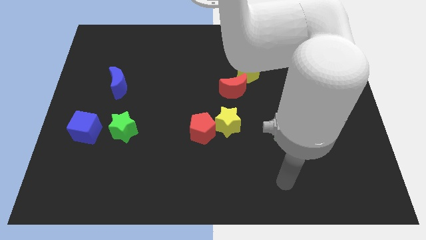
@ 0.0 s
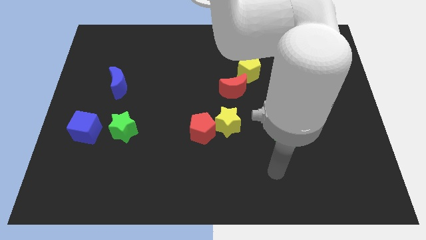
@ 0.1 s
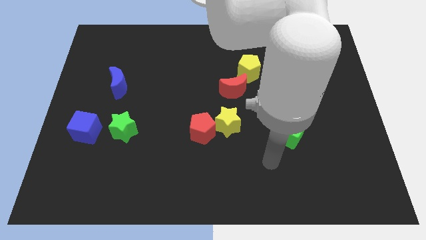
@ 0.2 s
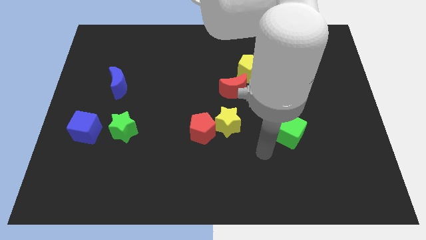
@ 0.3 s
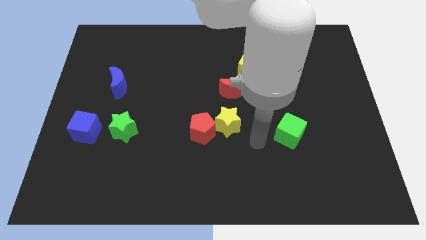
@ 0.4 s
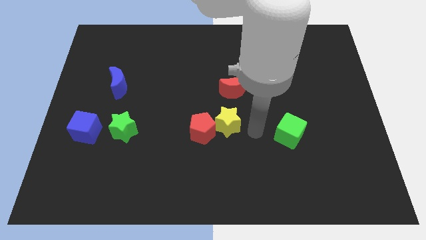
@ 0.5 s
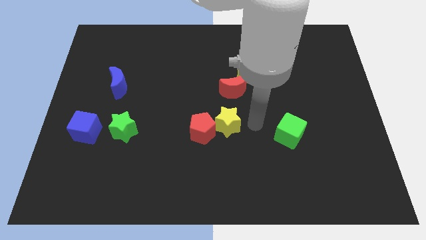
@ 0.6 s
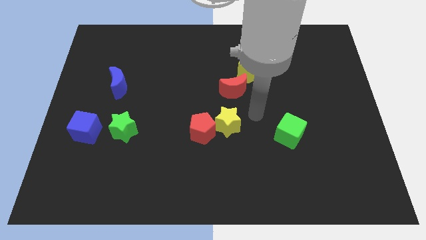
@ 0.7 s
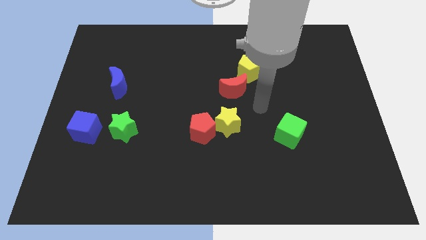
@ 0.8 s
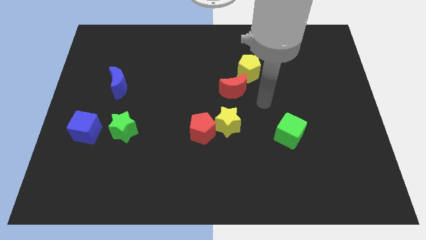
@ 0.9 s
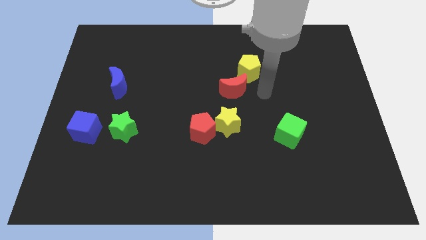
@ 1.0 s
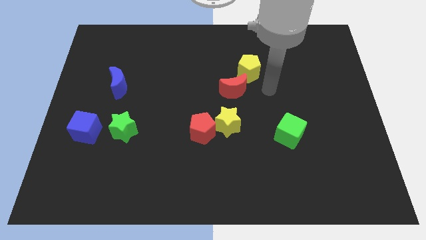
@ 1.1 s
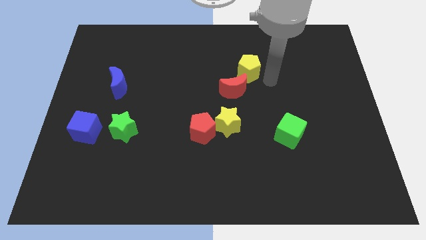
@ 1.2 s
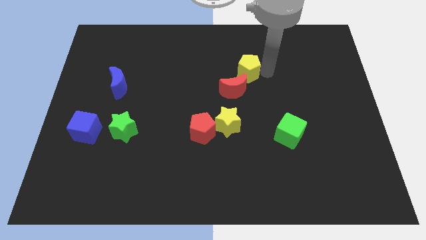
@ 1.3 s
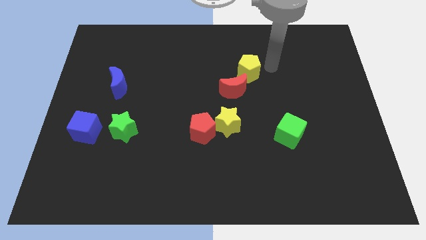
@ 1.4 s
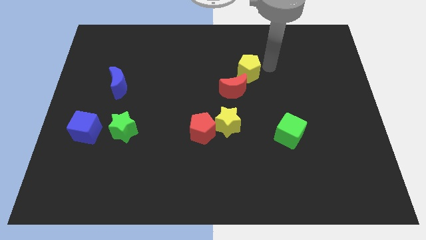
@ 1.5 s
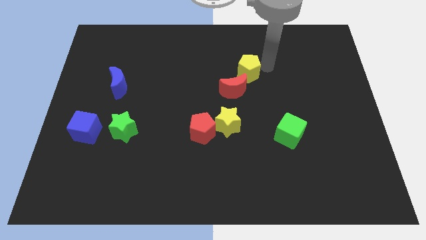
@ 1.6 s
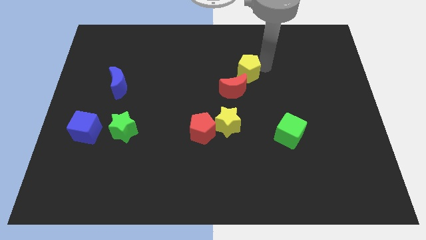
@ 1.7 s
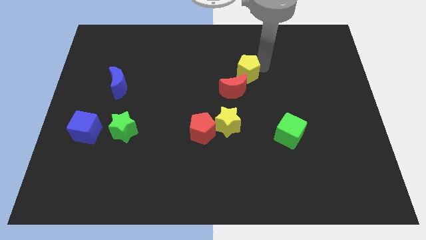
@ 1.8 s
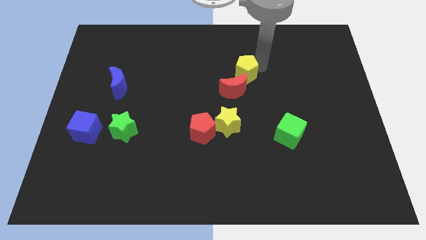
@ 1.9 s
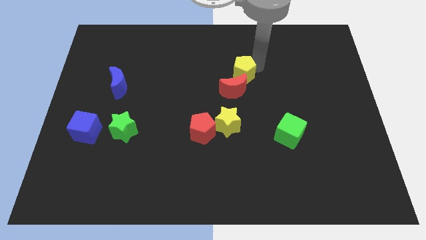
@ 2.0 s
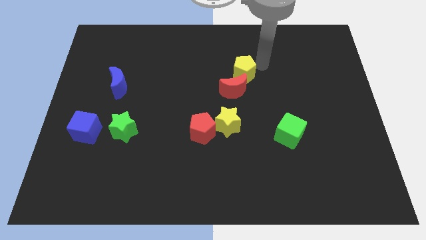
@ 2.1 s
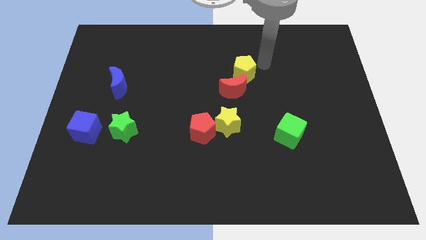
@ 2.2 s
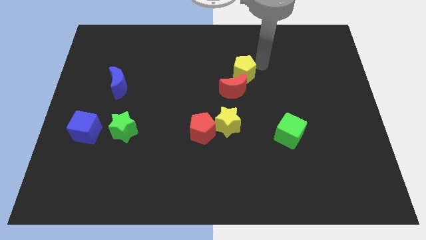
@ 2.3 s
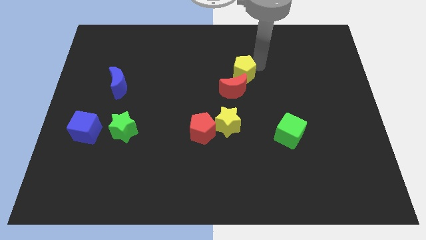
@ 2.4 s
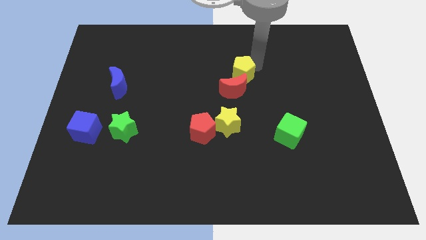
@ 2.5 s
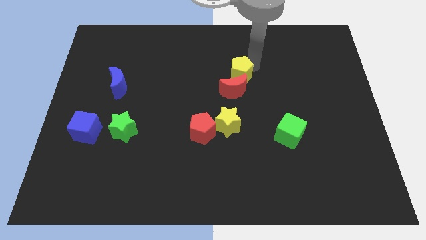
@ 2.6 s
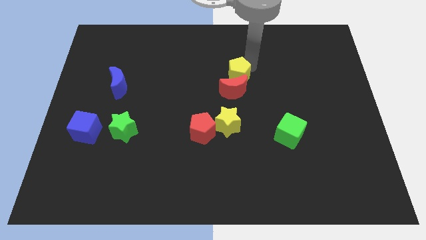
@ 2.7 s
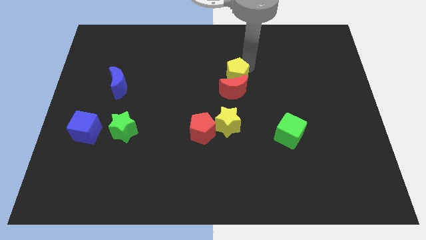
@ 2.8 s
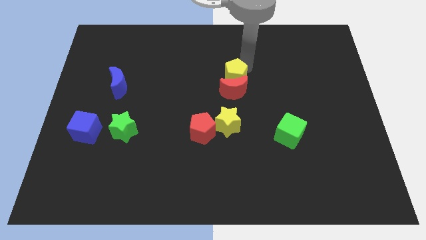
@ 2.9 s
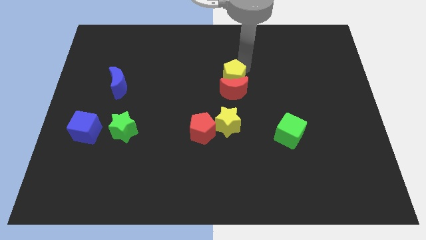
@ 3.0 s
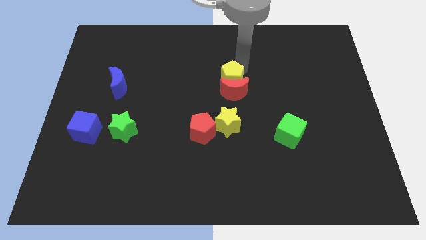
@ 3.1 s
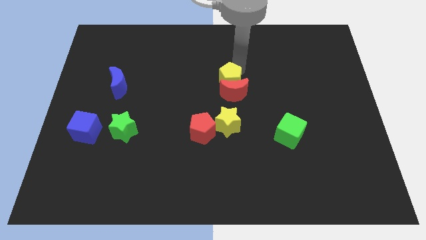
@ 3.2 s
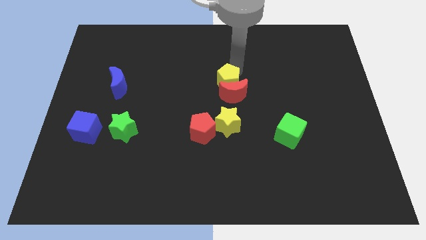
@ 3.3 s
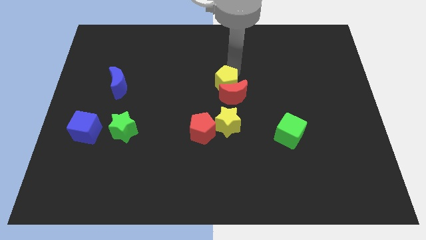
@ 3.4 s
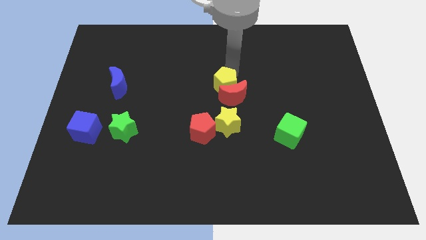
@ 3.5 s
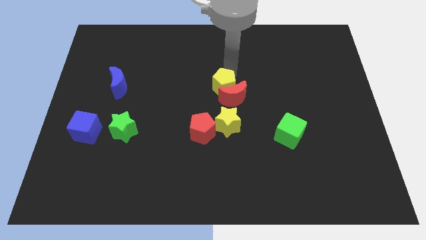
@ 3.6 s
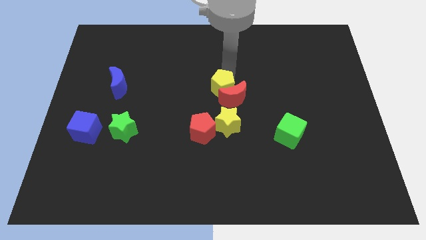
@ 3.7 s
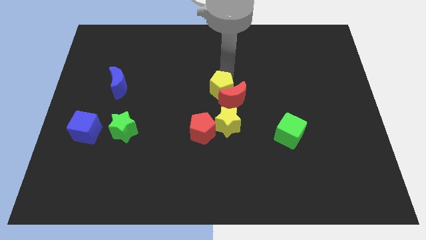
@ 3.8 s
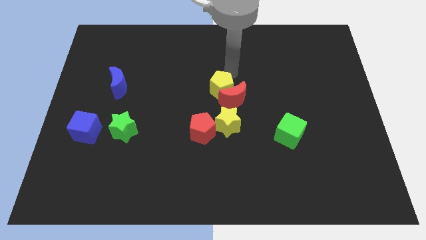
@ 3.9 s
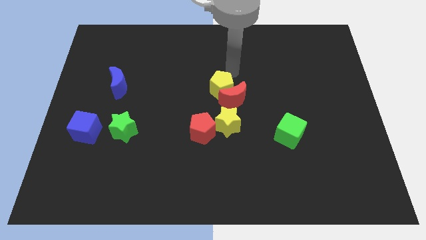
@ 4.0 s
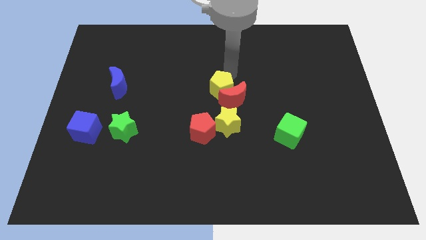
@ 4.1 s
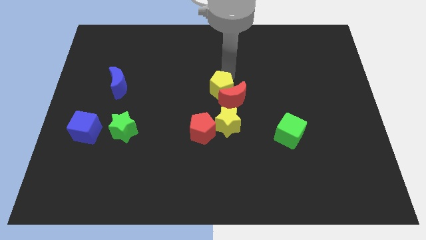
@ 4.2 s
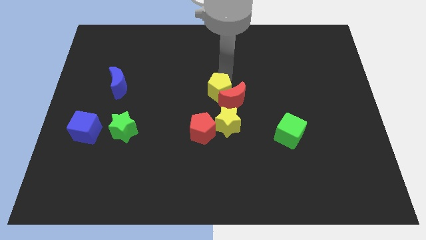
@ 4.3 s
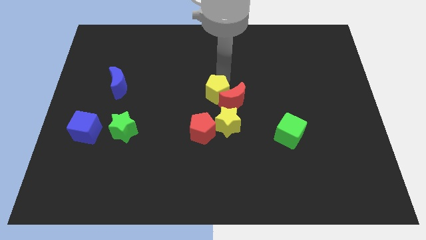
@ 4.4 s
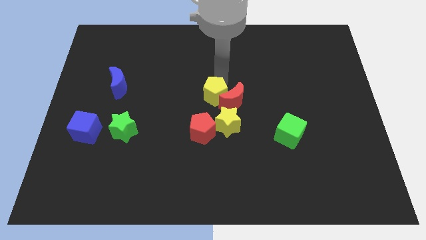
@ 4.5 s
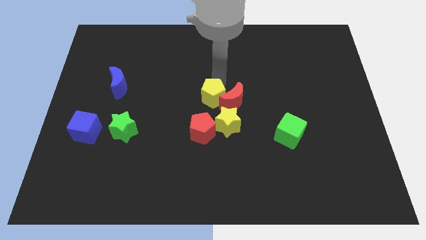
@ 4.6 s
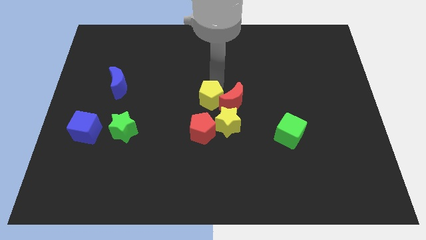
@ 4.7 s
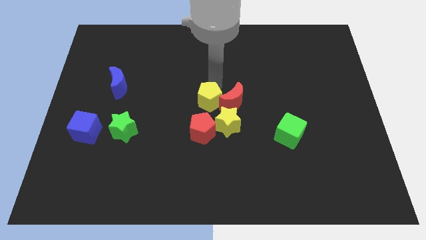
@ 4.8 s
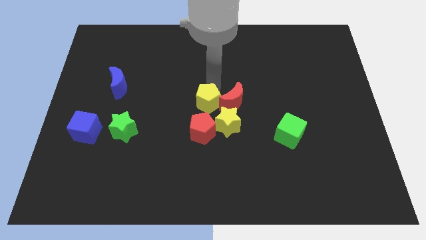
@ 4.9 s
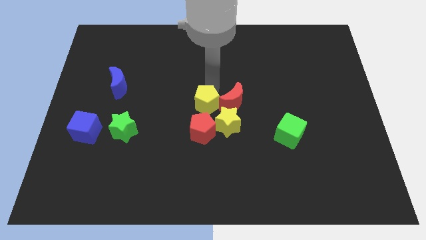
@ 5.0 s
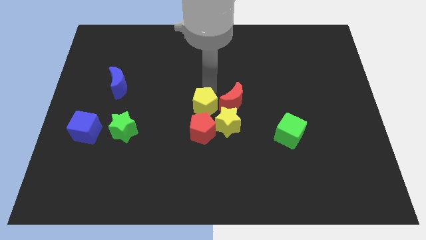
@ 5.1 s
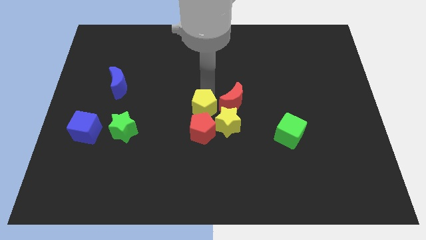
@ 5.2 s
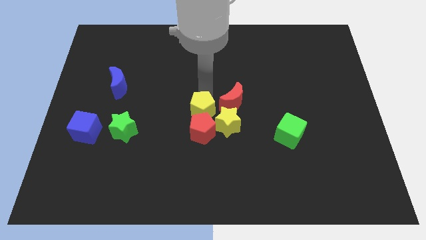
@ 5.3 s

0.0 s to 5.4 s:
put the yellow pentagon next to the red pentagon

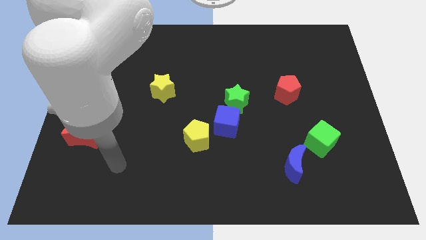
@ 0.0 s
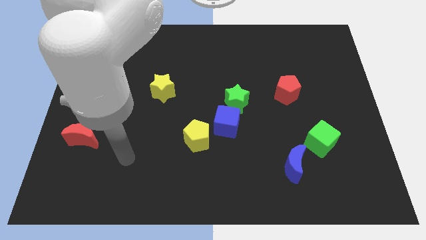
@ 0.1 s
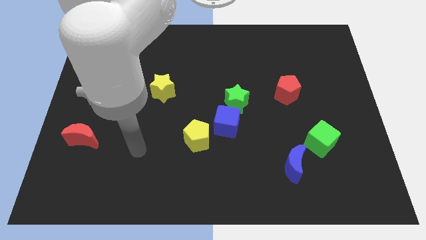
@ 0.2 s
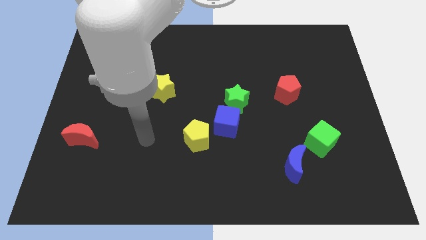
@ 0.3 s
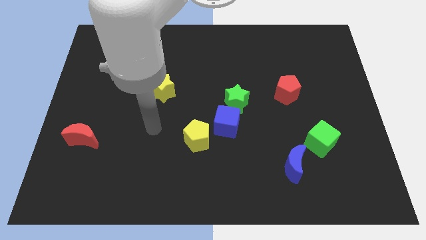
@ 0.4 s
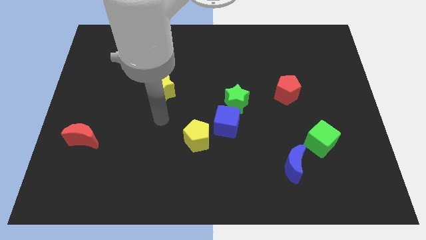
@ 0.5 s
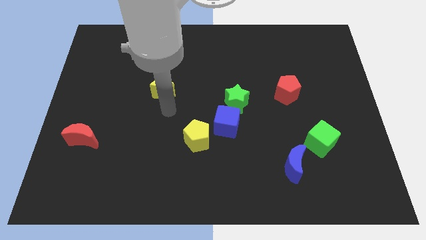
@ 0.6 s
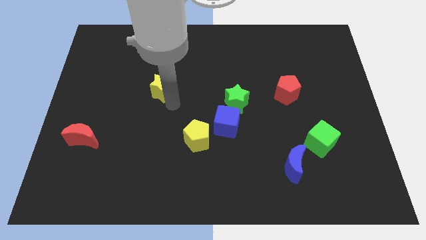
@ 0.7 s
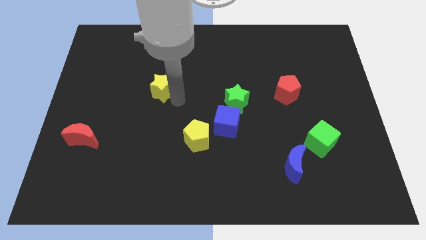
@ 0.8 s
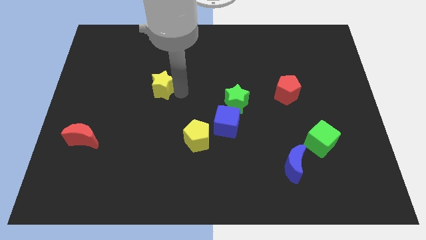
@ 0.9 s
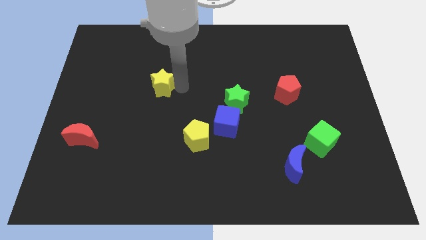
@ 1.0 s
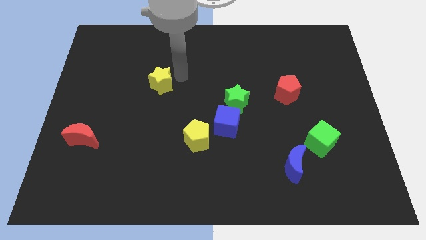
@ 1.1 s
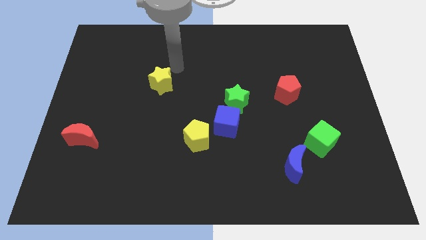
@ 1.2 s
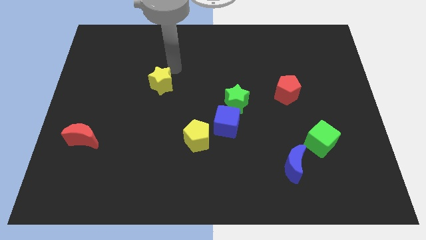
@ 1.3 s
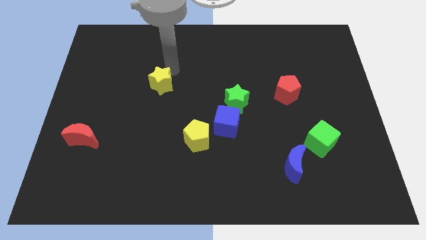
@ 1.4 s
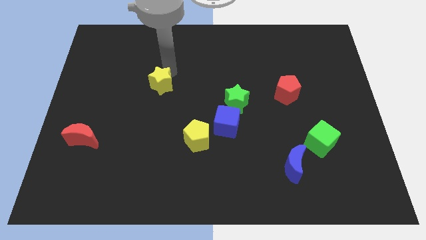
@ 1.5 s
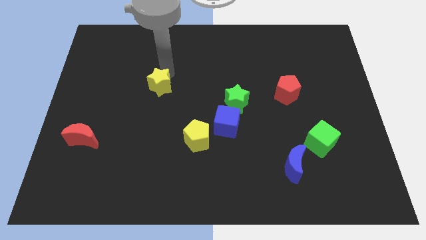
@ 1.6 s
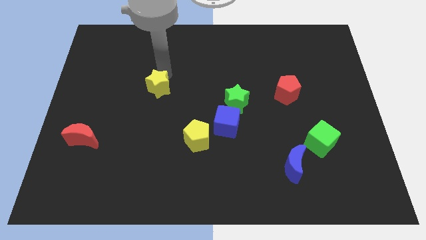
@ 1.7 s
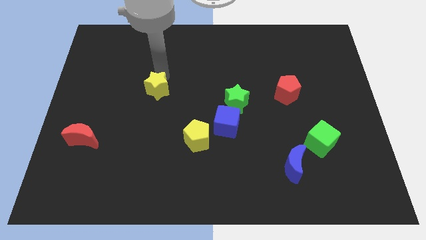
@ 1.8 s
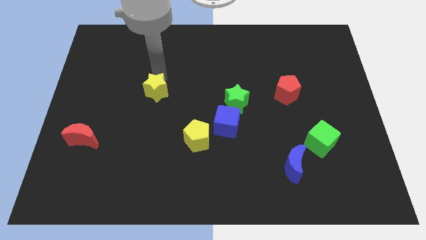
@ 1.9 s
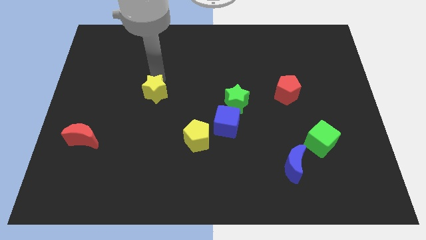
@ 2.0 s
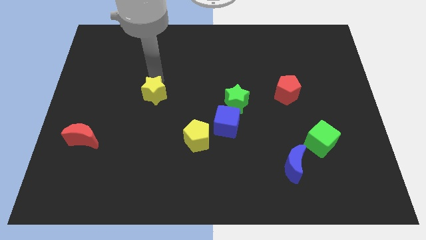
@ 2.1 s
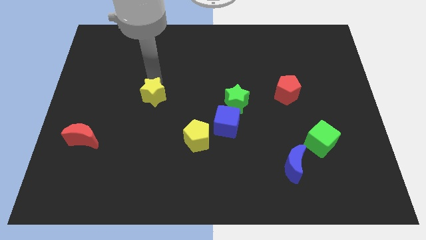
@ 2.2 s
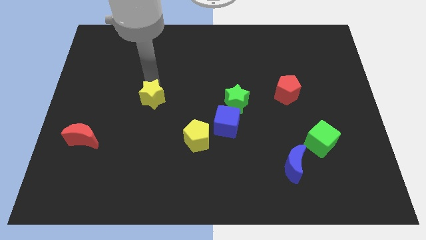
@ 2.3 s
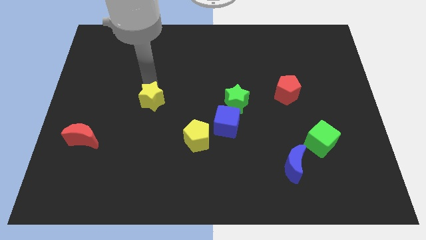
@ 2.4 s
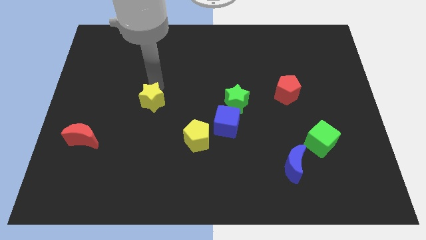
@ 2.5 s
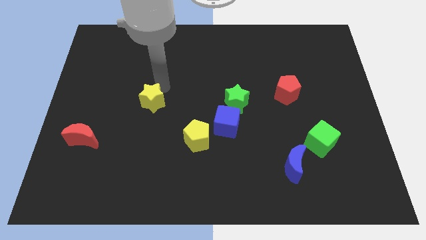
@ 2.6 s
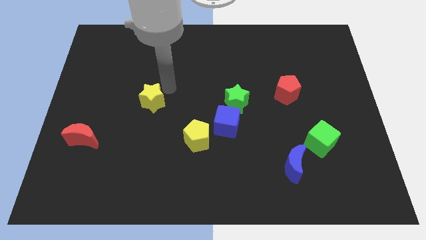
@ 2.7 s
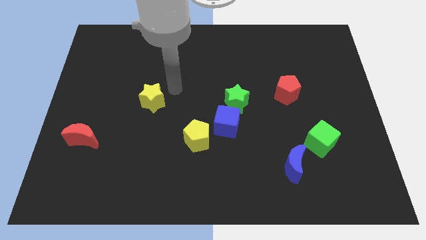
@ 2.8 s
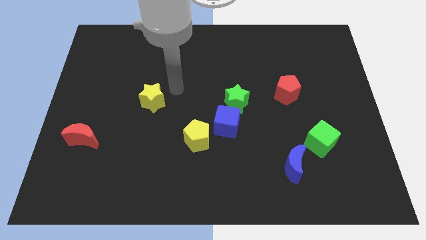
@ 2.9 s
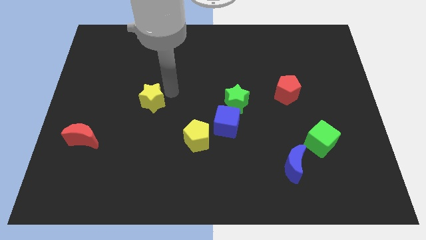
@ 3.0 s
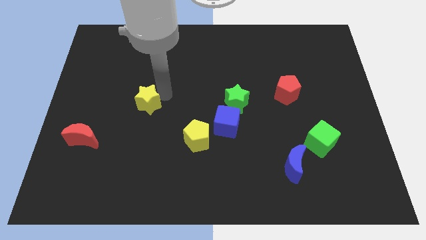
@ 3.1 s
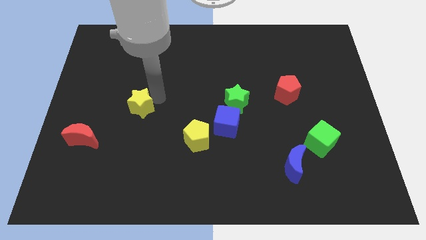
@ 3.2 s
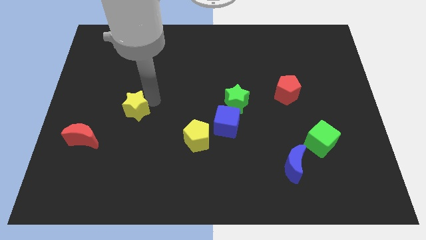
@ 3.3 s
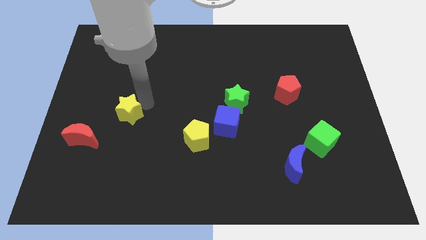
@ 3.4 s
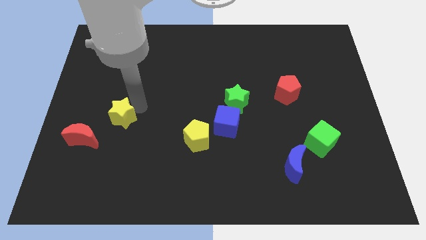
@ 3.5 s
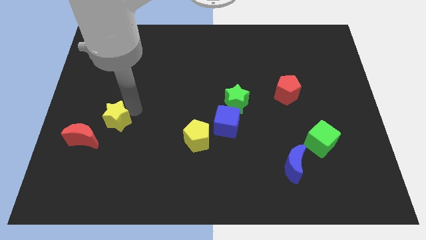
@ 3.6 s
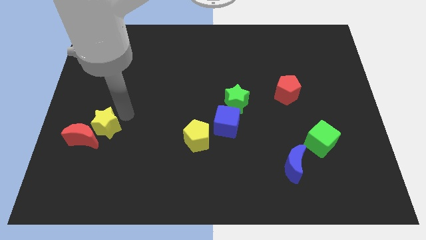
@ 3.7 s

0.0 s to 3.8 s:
slide the yellow star next to the red moon
